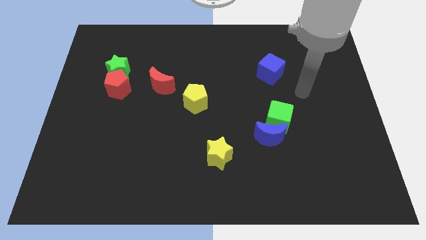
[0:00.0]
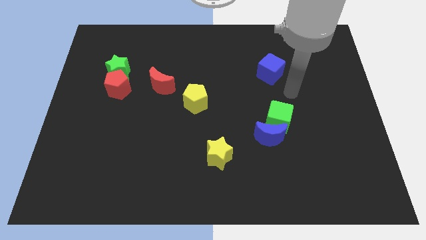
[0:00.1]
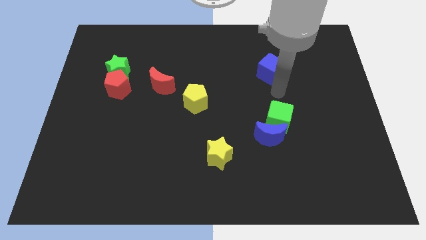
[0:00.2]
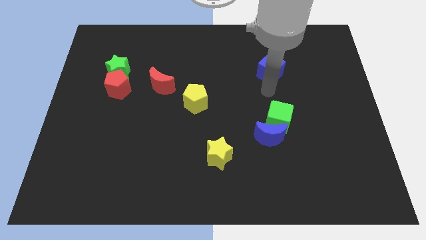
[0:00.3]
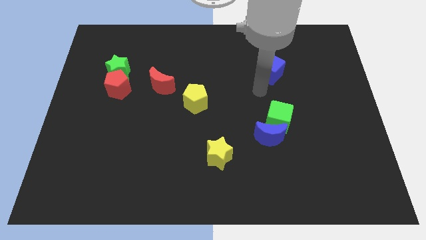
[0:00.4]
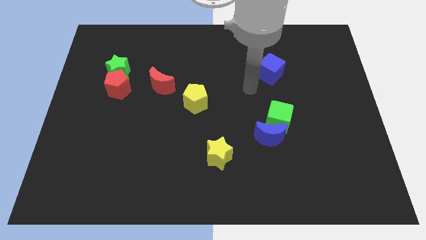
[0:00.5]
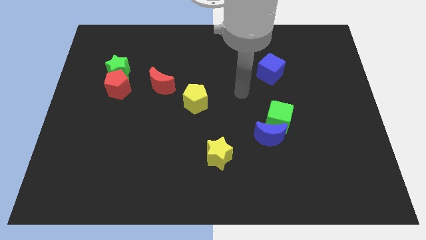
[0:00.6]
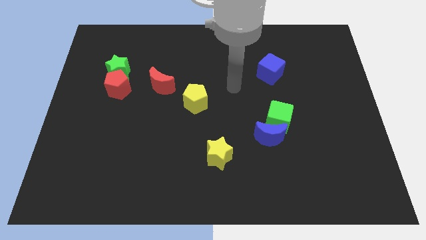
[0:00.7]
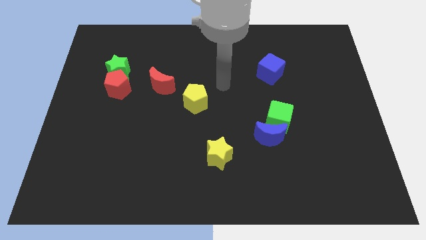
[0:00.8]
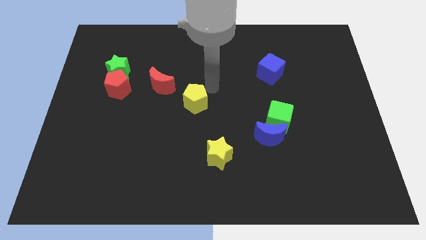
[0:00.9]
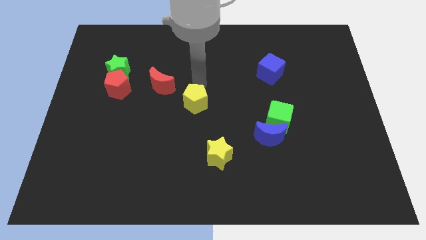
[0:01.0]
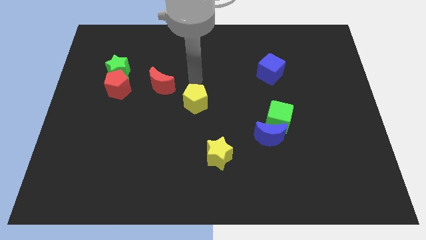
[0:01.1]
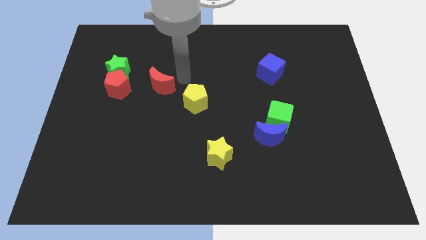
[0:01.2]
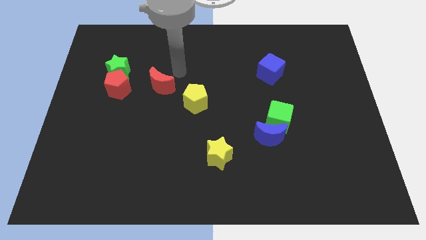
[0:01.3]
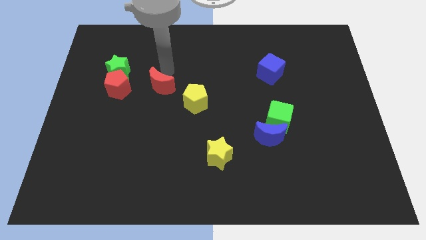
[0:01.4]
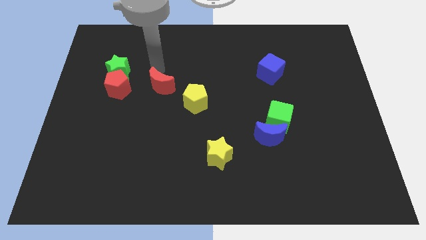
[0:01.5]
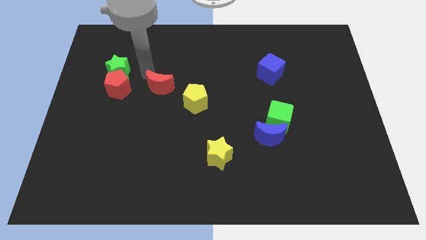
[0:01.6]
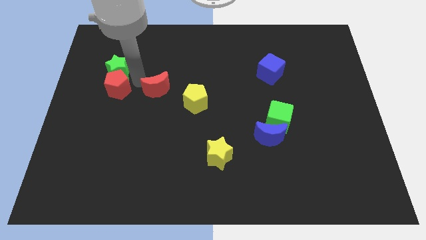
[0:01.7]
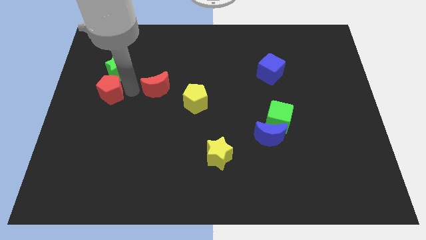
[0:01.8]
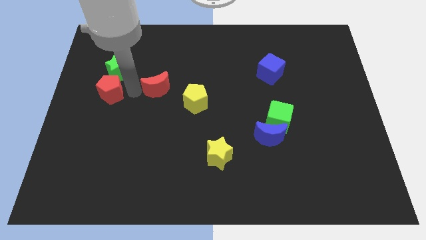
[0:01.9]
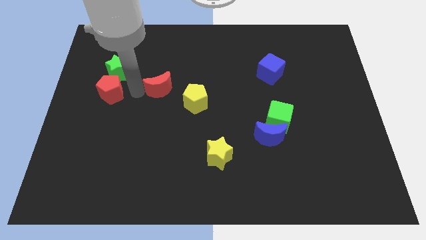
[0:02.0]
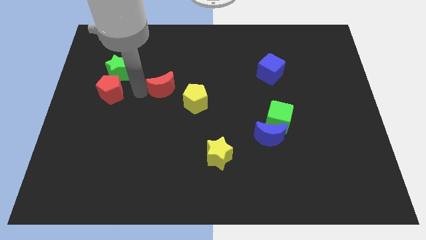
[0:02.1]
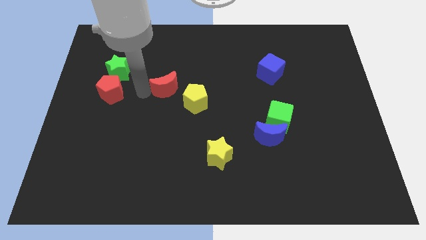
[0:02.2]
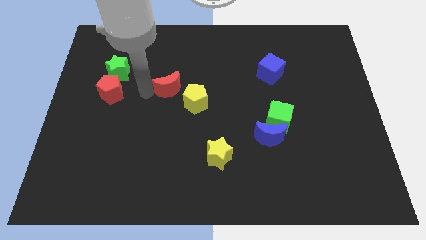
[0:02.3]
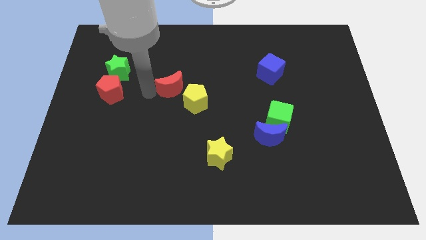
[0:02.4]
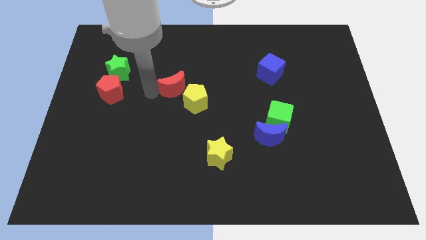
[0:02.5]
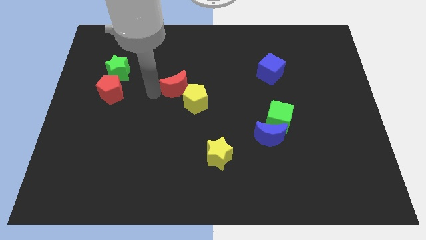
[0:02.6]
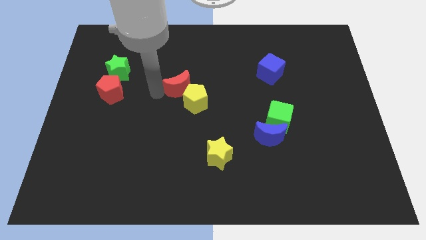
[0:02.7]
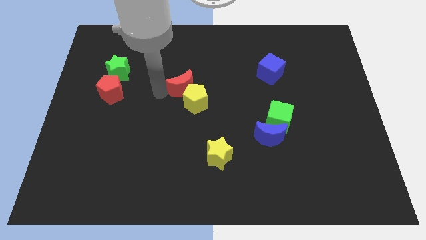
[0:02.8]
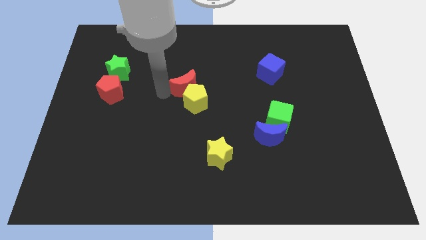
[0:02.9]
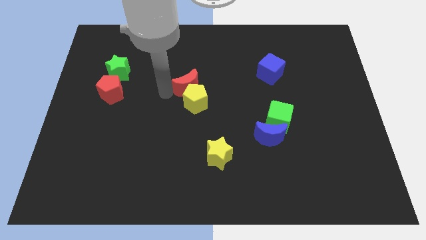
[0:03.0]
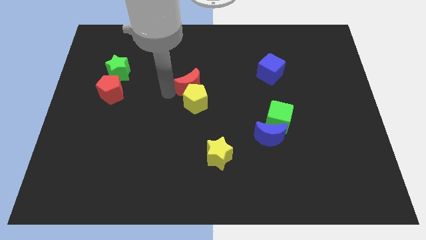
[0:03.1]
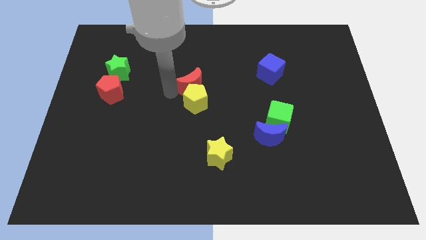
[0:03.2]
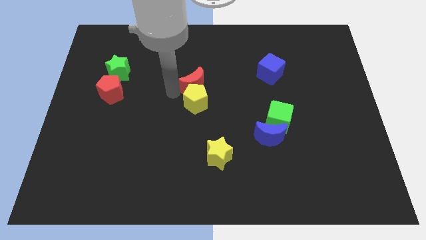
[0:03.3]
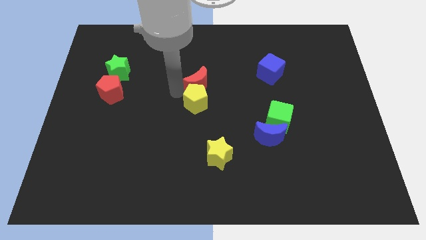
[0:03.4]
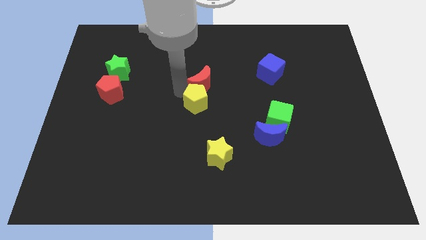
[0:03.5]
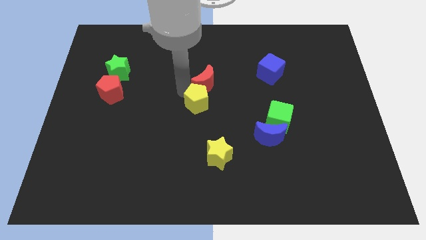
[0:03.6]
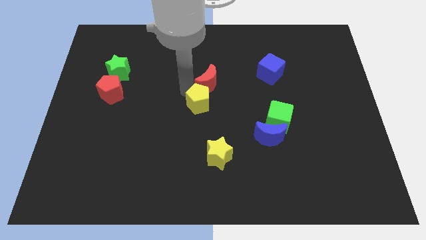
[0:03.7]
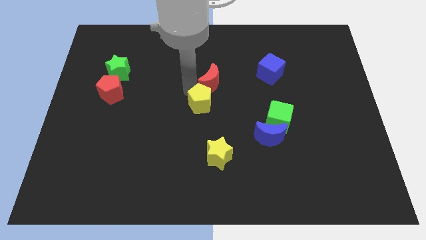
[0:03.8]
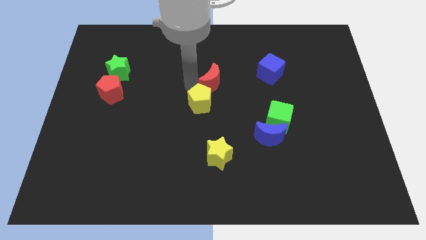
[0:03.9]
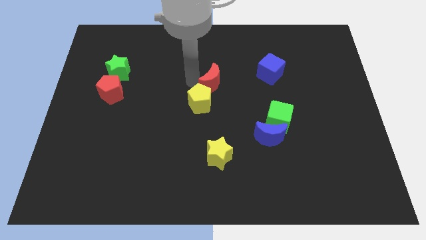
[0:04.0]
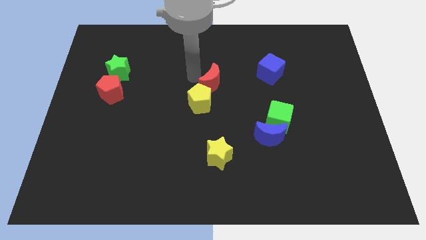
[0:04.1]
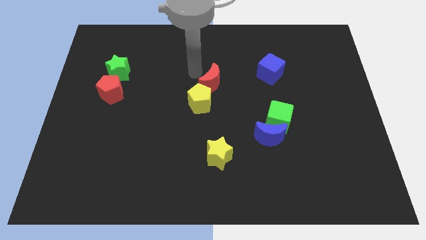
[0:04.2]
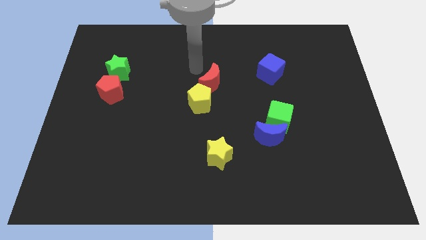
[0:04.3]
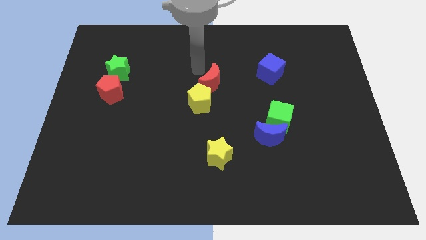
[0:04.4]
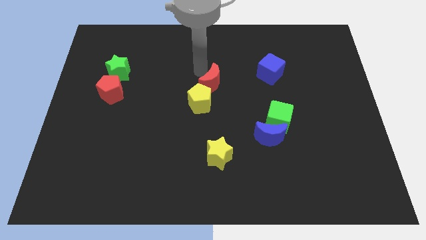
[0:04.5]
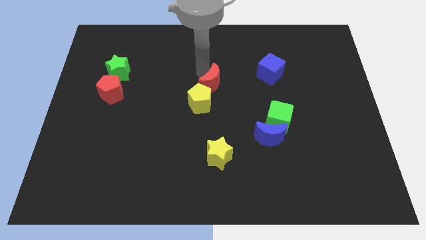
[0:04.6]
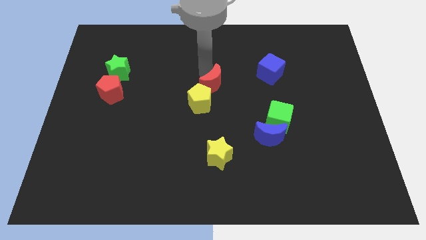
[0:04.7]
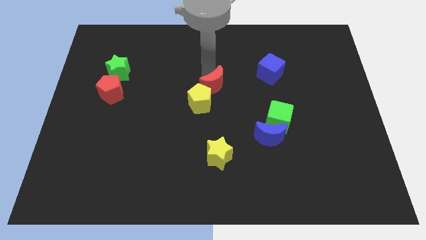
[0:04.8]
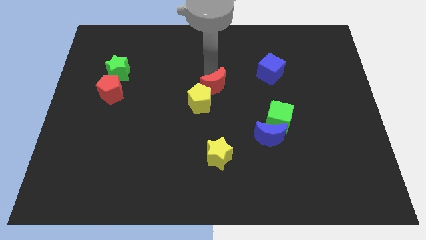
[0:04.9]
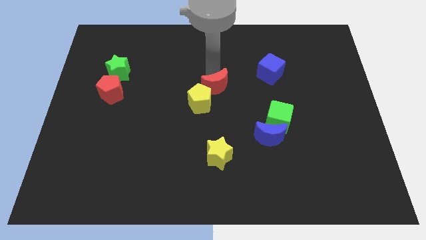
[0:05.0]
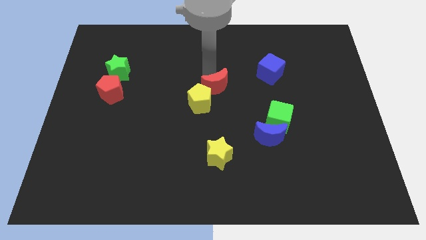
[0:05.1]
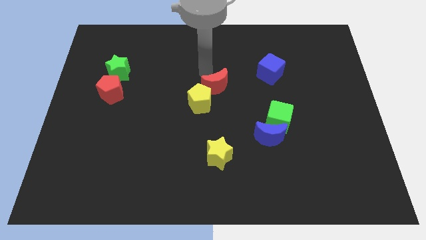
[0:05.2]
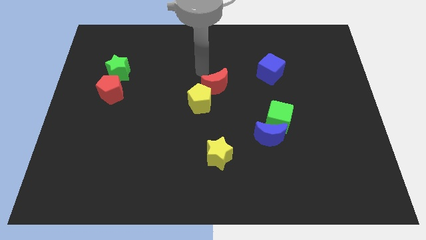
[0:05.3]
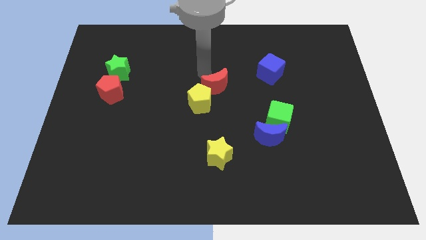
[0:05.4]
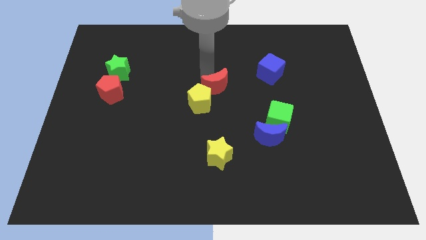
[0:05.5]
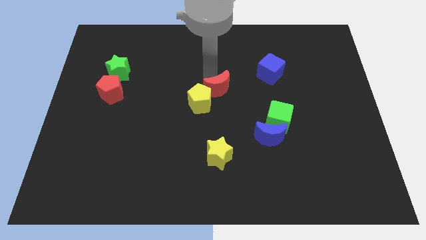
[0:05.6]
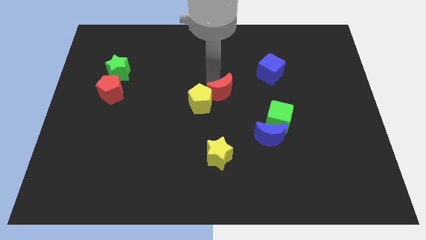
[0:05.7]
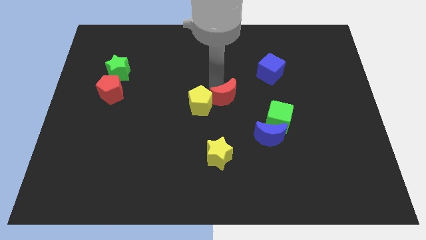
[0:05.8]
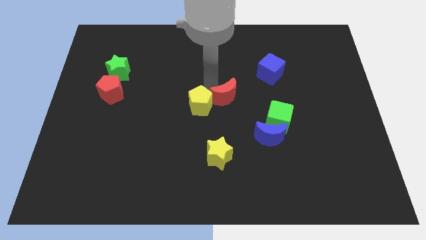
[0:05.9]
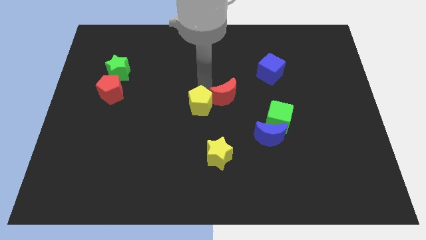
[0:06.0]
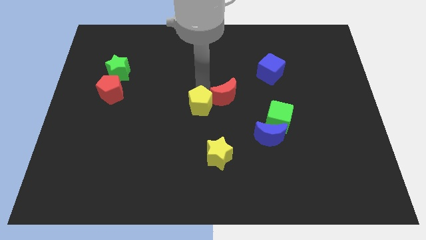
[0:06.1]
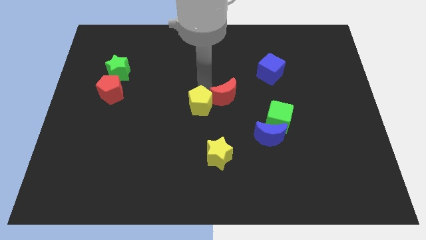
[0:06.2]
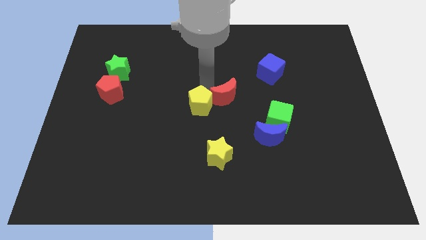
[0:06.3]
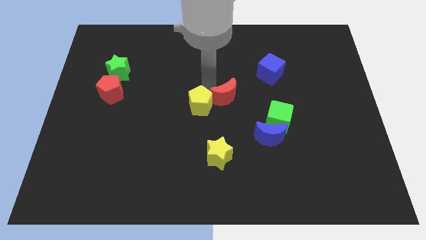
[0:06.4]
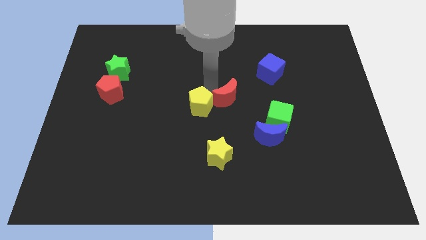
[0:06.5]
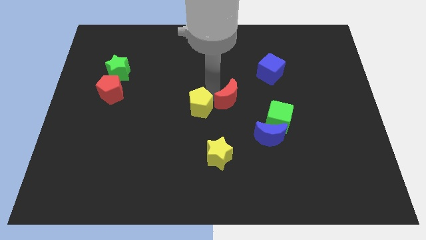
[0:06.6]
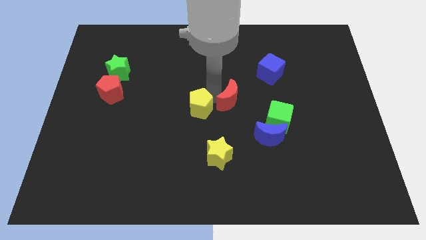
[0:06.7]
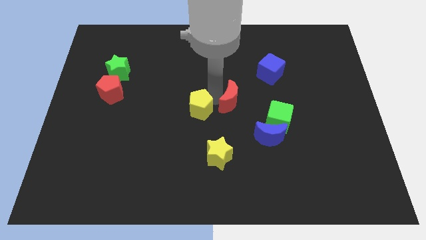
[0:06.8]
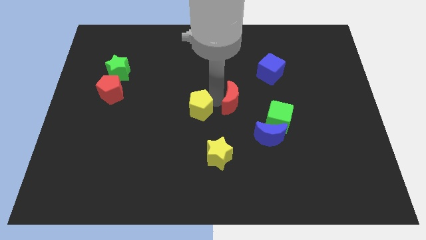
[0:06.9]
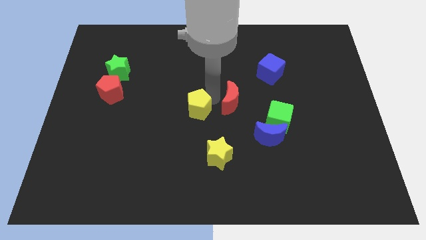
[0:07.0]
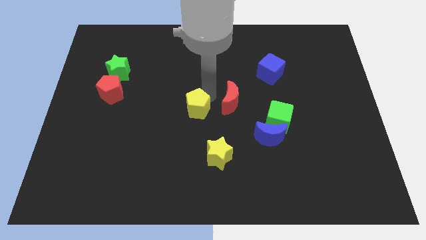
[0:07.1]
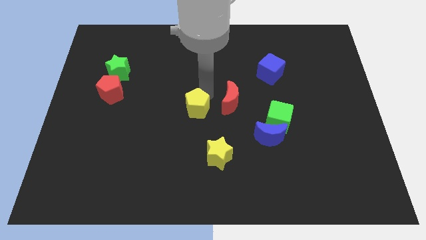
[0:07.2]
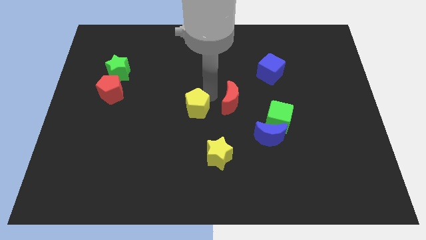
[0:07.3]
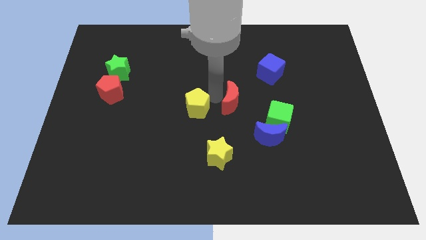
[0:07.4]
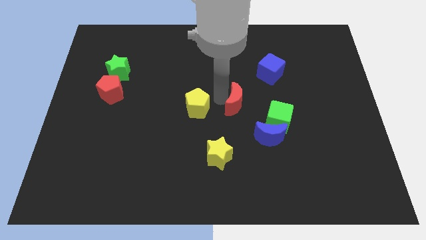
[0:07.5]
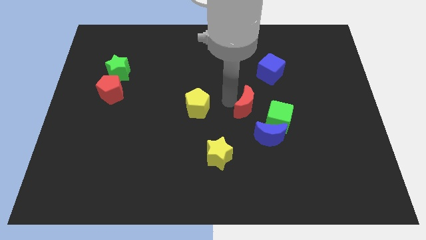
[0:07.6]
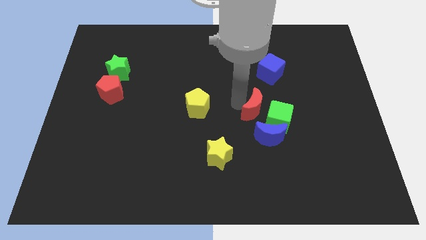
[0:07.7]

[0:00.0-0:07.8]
push the red moon towards the green cube

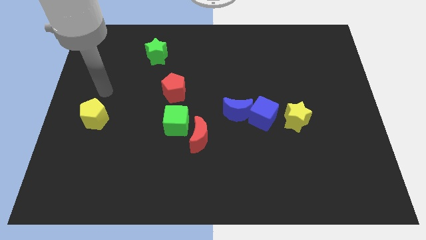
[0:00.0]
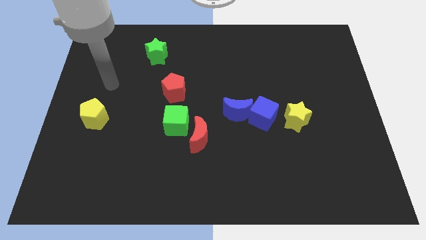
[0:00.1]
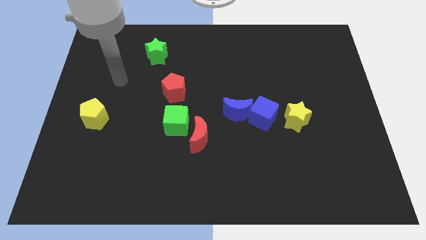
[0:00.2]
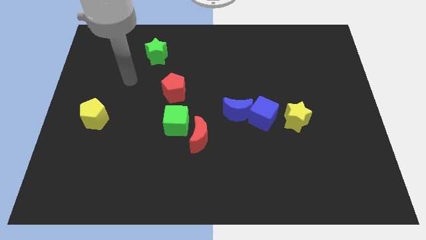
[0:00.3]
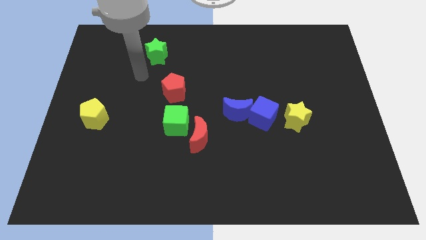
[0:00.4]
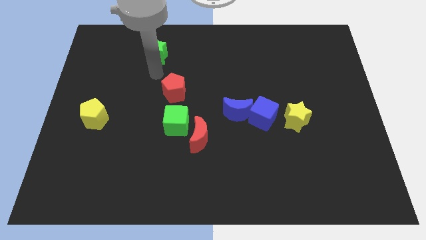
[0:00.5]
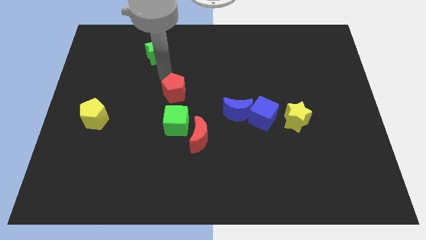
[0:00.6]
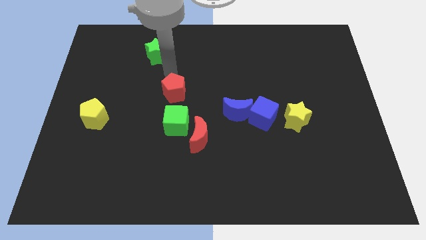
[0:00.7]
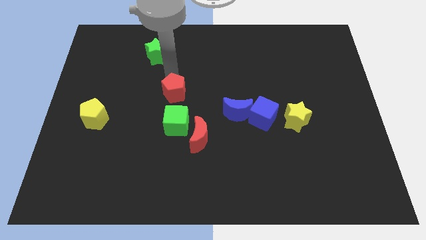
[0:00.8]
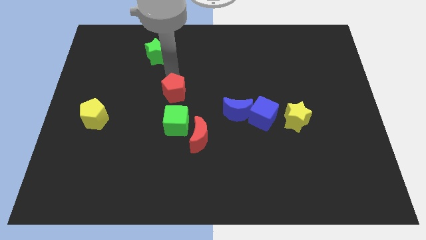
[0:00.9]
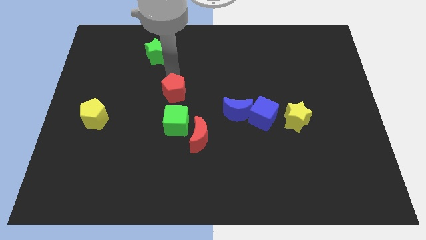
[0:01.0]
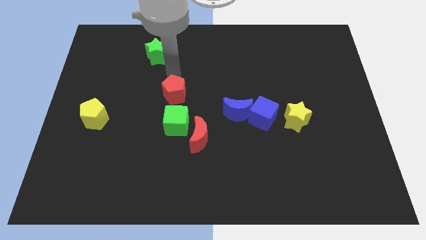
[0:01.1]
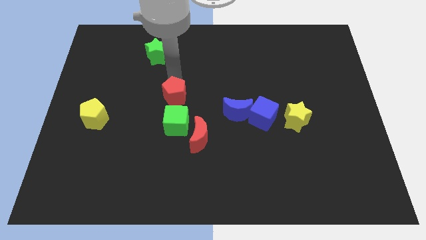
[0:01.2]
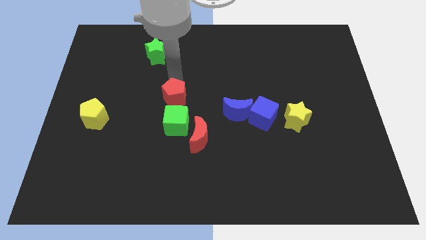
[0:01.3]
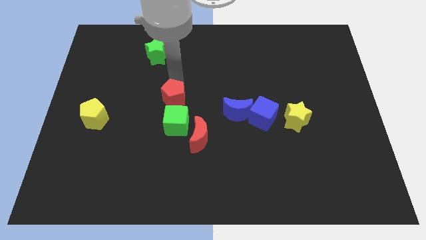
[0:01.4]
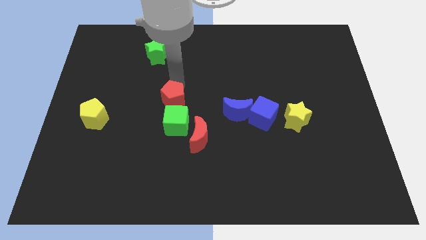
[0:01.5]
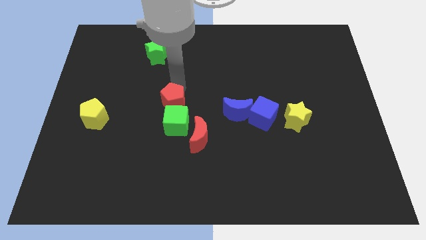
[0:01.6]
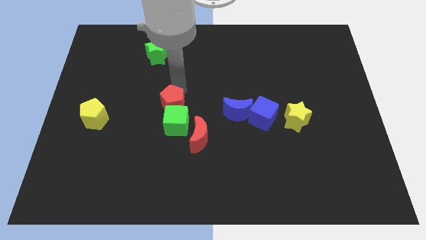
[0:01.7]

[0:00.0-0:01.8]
put the red pentagon to the green cube
